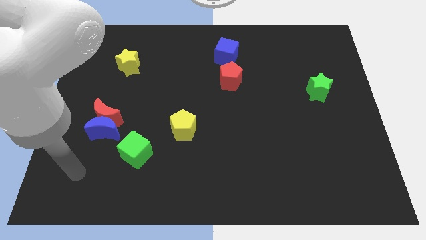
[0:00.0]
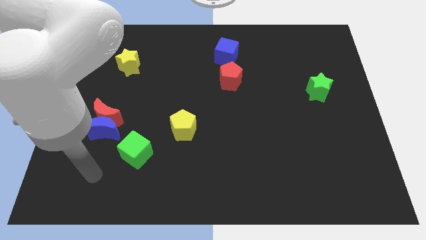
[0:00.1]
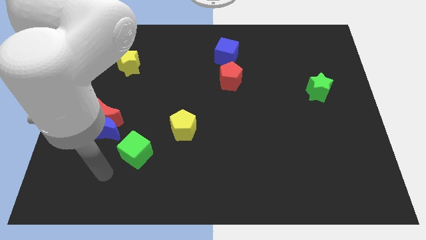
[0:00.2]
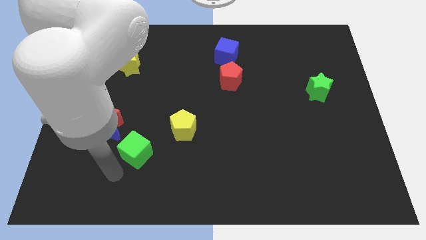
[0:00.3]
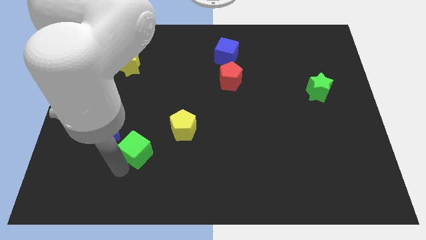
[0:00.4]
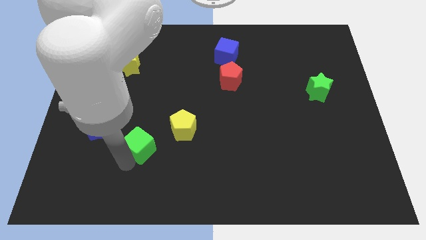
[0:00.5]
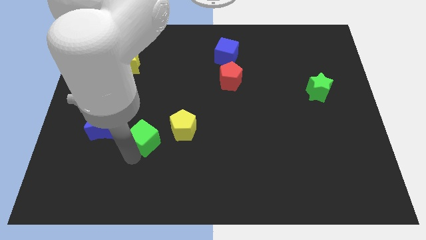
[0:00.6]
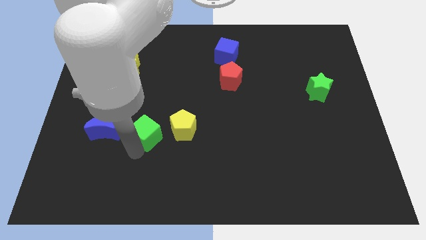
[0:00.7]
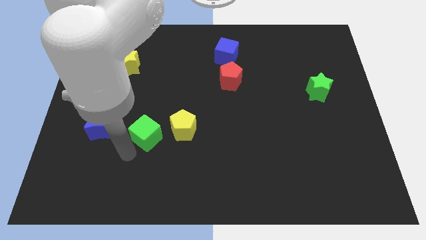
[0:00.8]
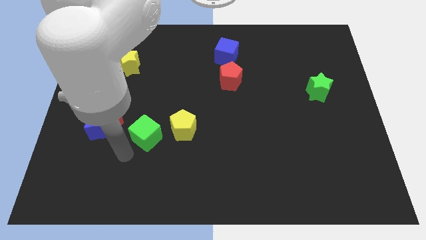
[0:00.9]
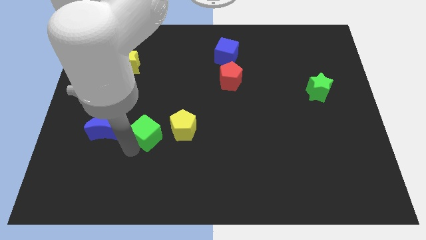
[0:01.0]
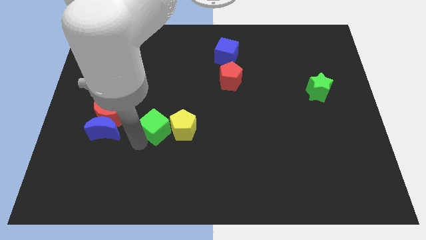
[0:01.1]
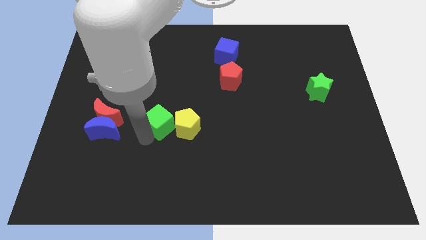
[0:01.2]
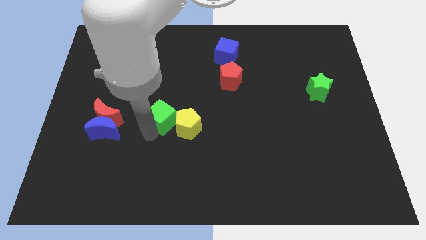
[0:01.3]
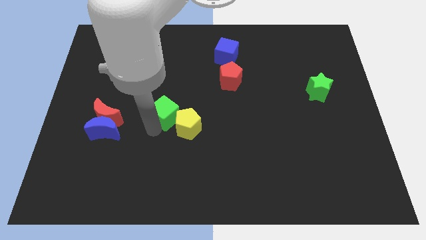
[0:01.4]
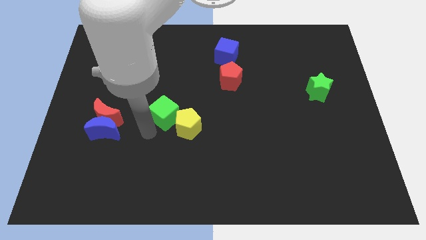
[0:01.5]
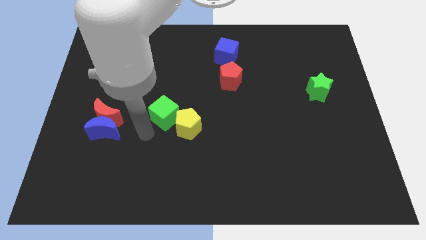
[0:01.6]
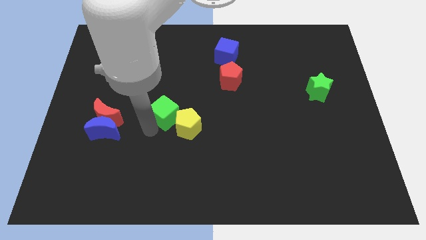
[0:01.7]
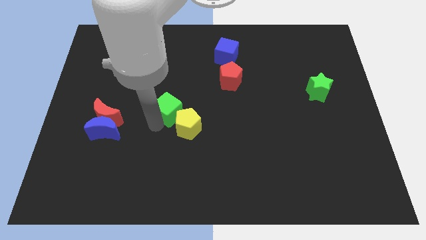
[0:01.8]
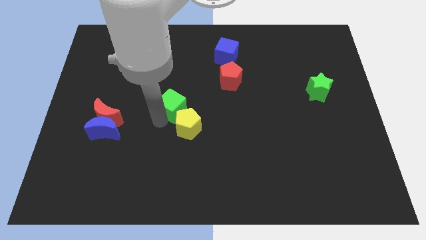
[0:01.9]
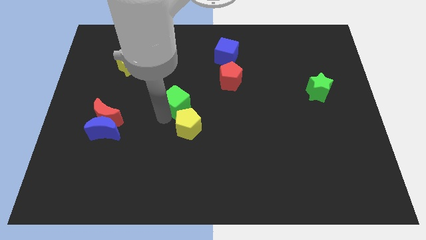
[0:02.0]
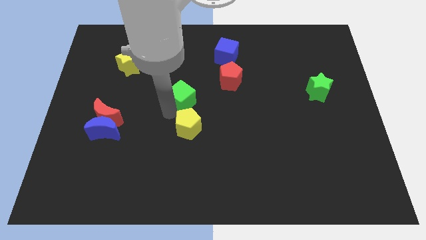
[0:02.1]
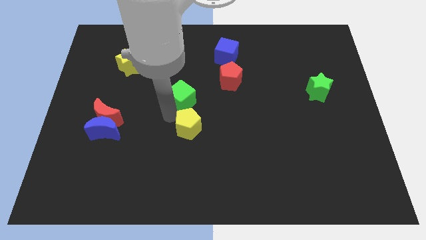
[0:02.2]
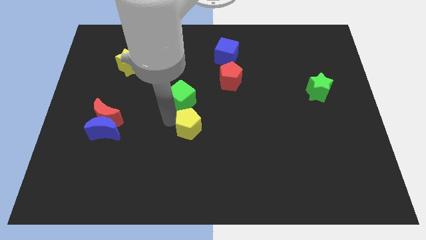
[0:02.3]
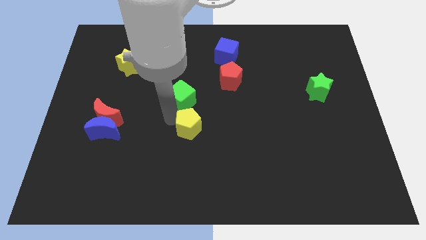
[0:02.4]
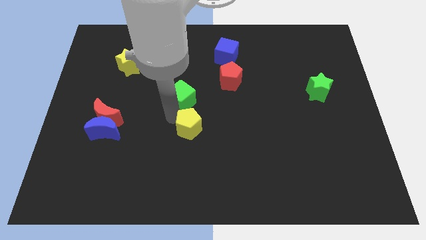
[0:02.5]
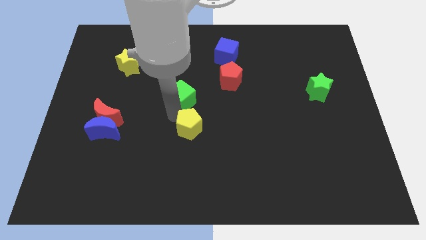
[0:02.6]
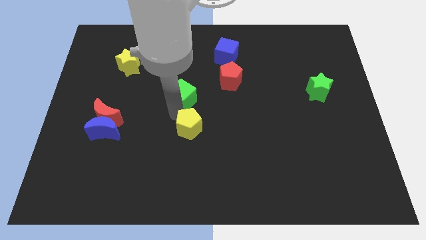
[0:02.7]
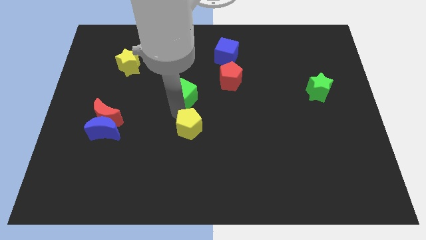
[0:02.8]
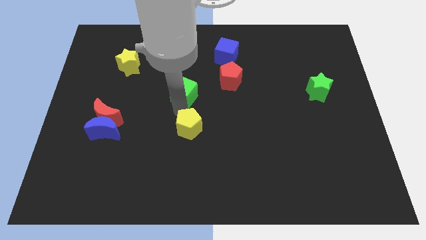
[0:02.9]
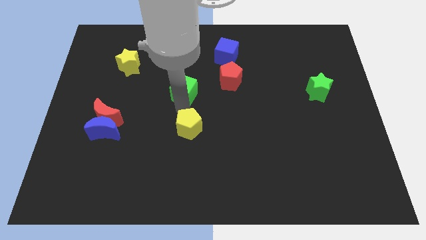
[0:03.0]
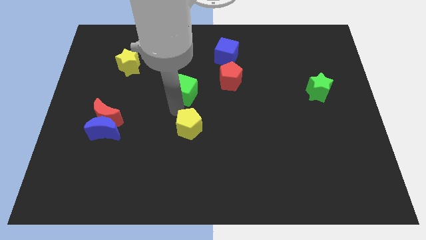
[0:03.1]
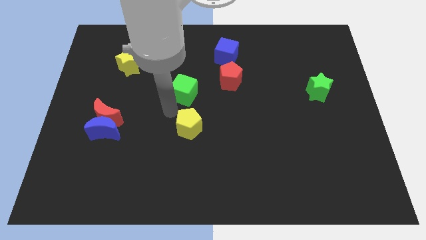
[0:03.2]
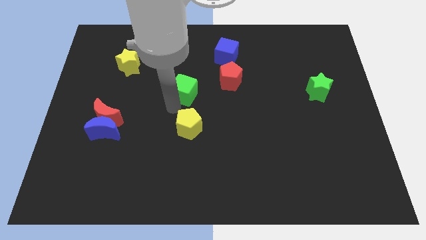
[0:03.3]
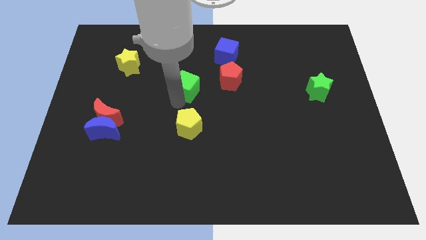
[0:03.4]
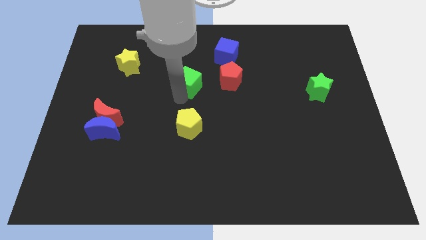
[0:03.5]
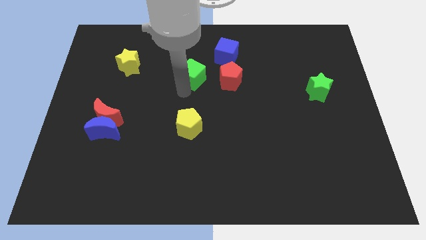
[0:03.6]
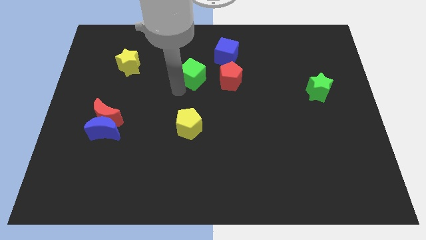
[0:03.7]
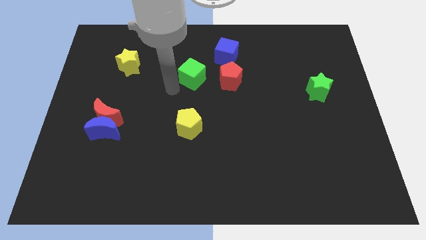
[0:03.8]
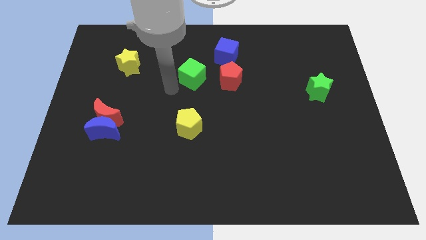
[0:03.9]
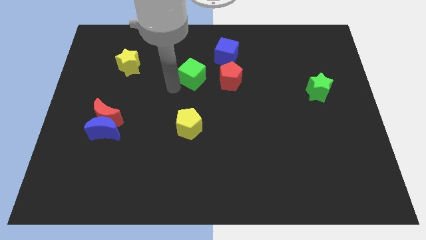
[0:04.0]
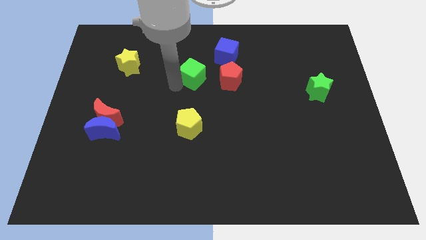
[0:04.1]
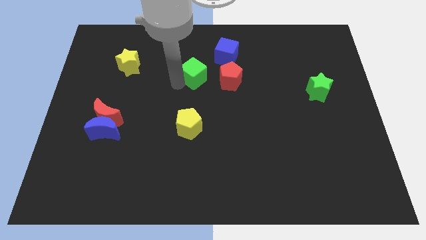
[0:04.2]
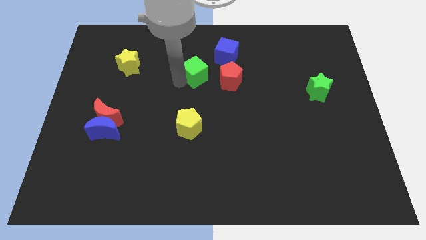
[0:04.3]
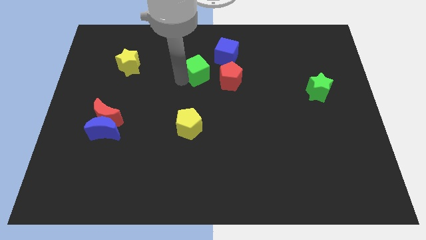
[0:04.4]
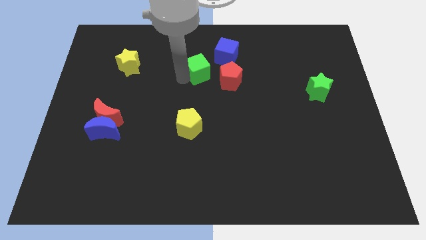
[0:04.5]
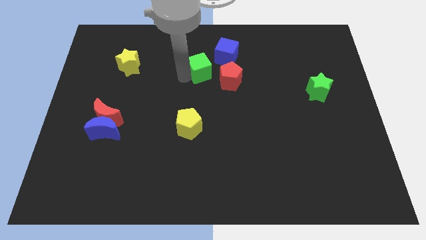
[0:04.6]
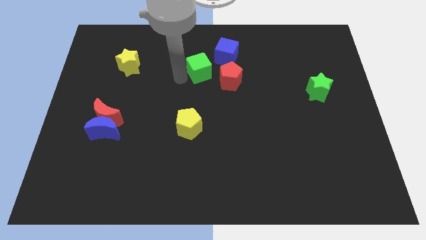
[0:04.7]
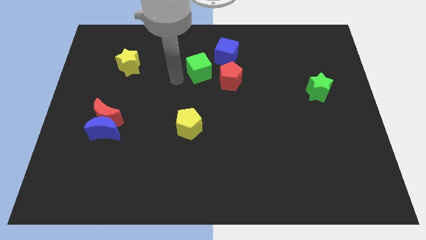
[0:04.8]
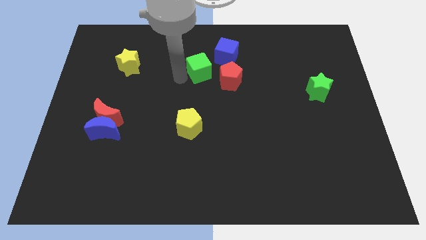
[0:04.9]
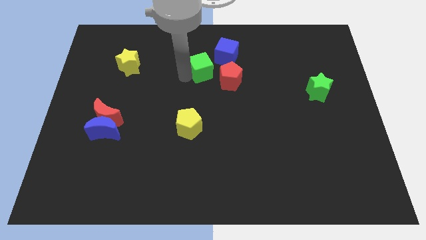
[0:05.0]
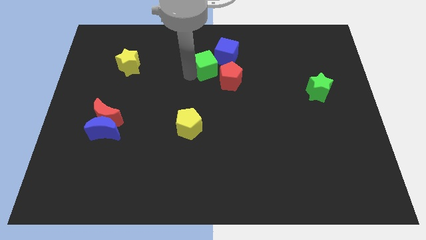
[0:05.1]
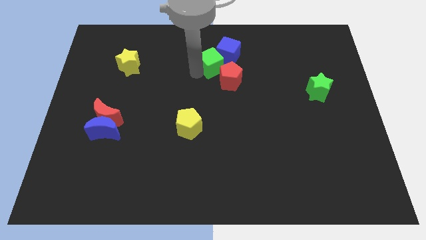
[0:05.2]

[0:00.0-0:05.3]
put the green cube to the blue cube
